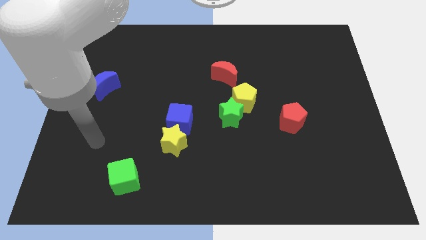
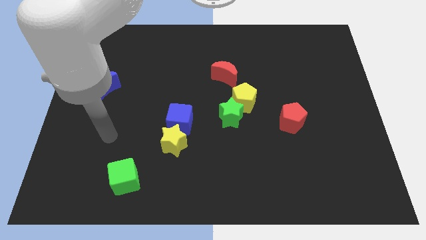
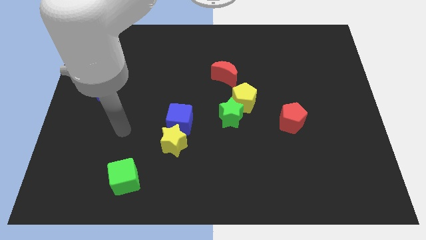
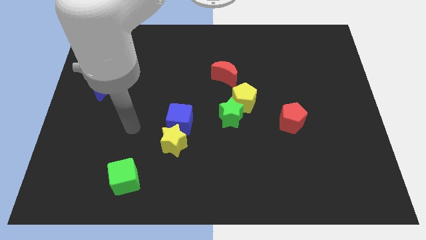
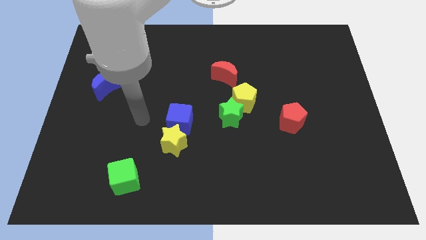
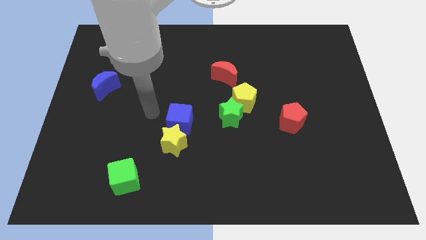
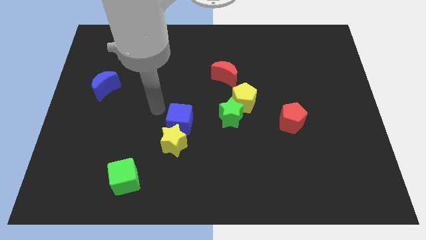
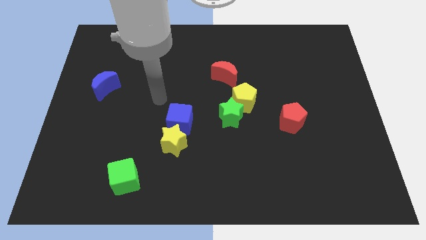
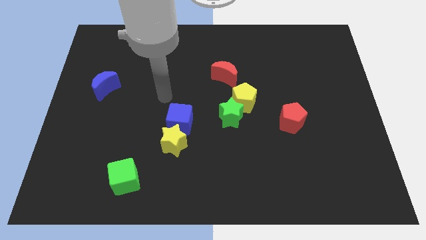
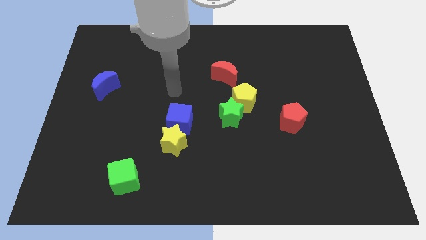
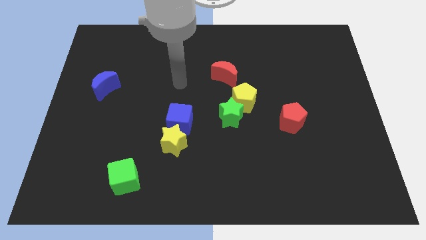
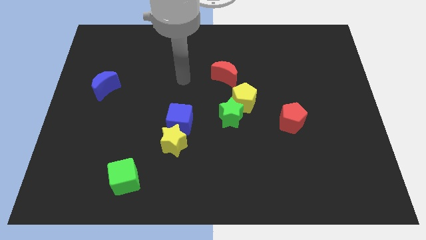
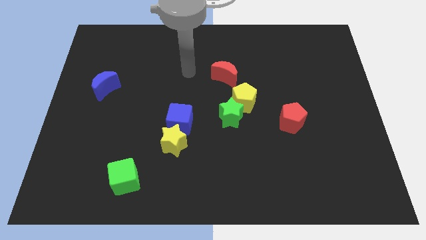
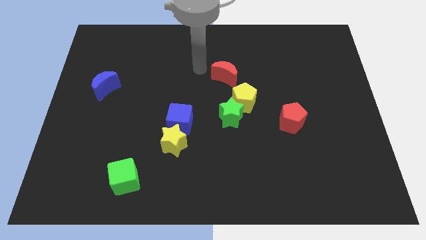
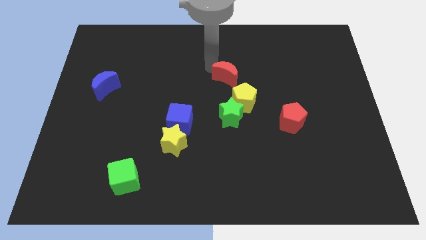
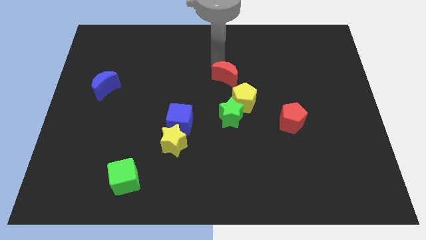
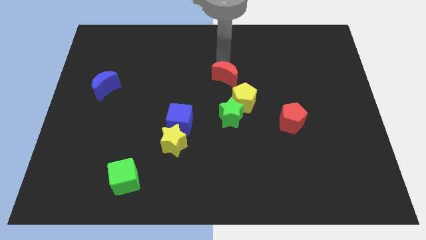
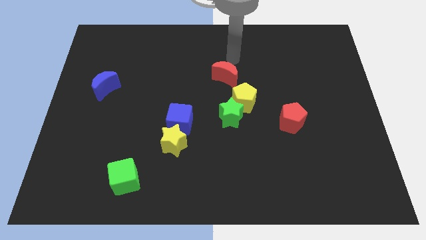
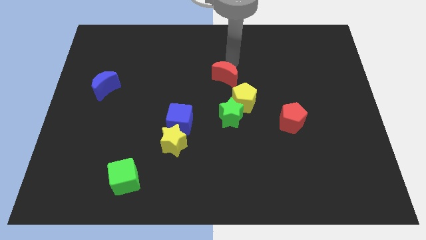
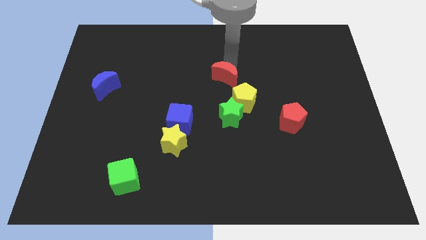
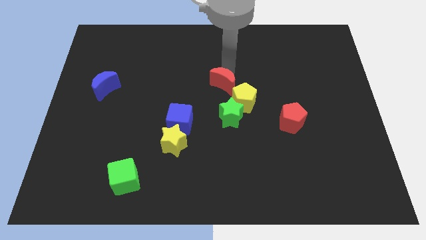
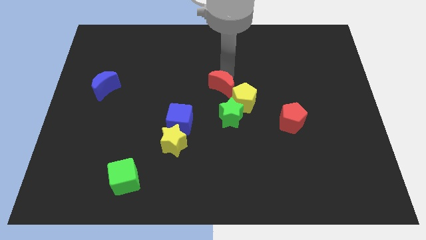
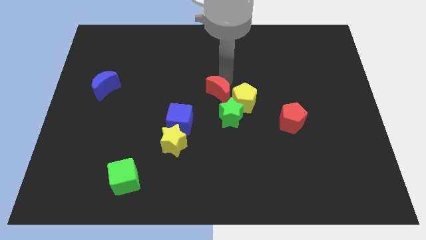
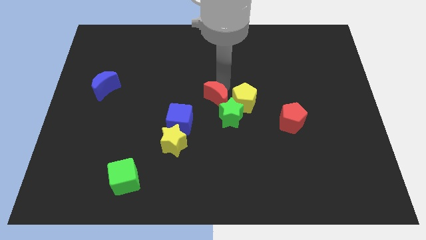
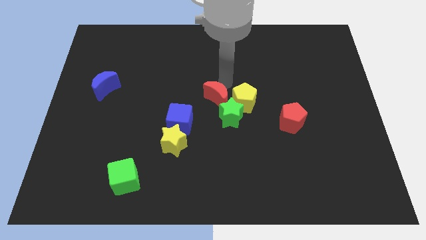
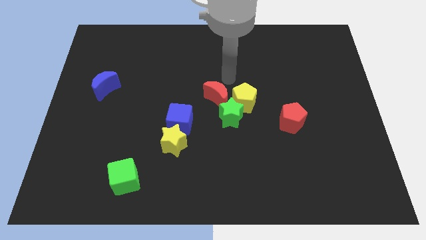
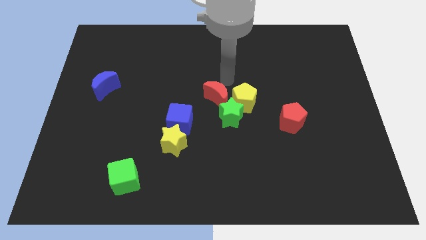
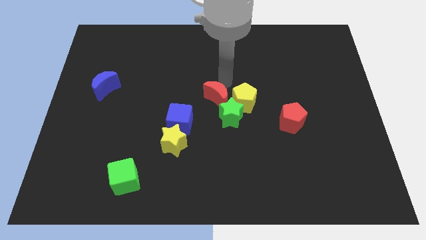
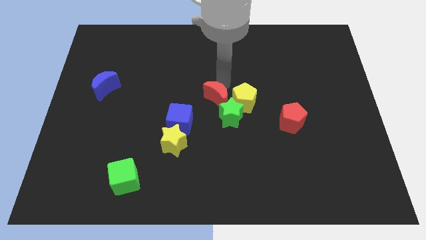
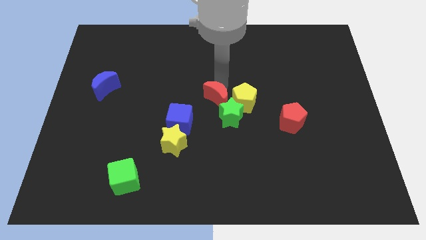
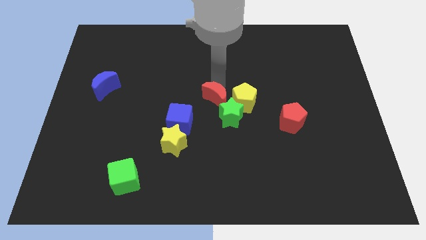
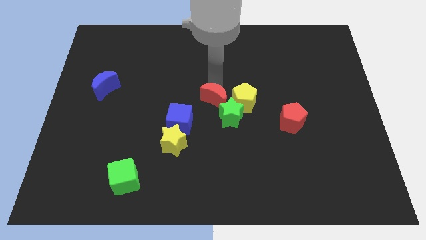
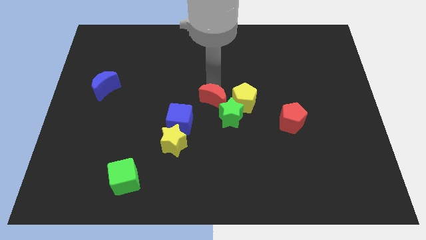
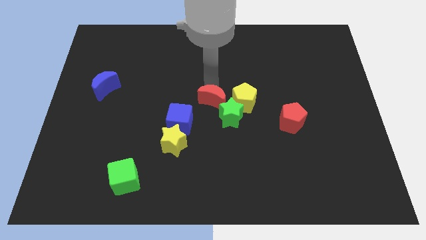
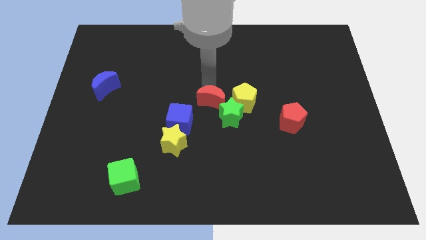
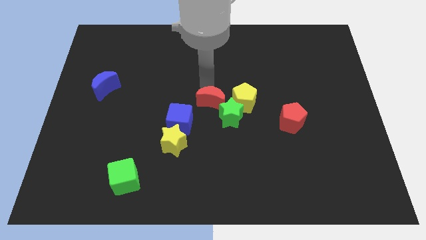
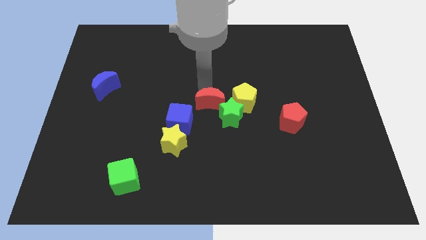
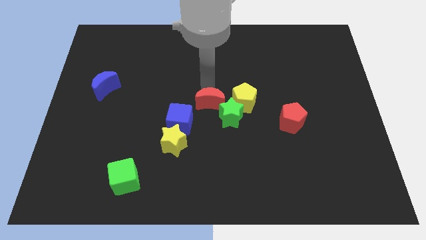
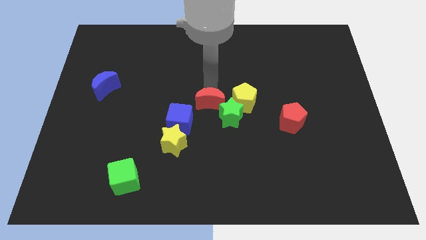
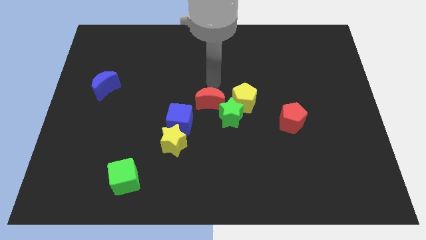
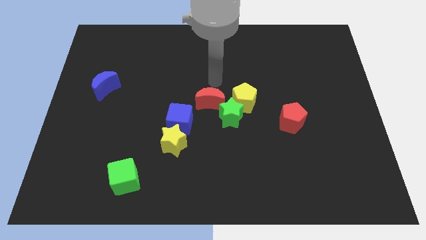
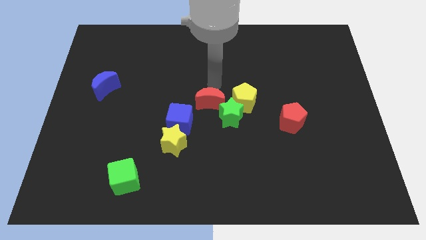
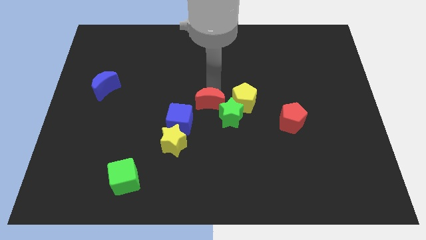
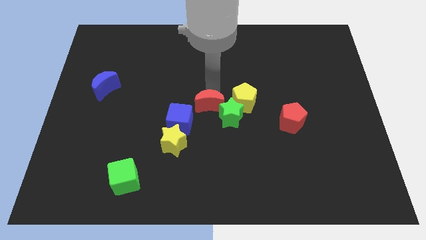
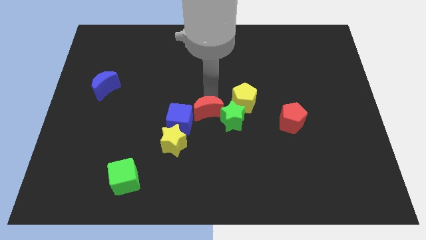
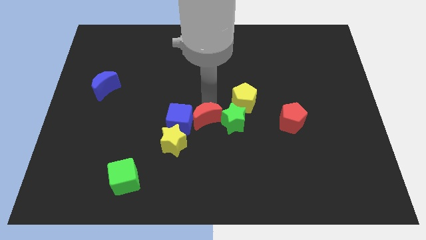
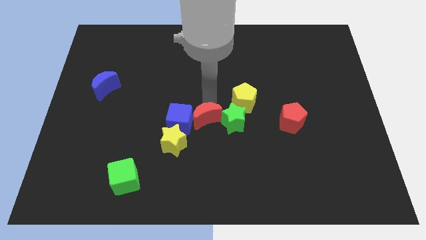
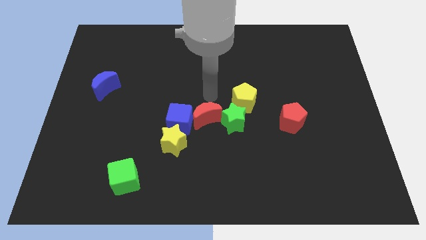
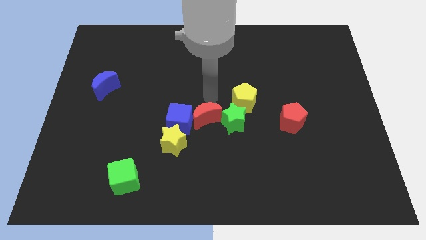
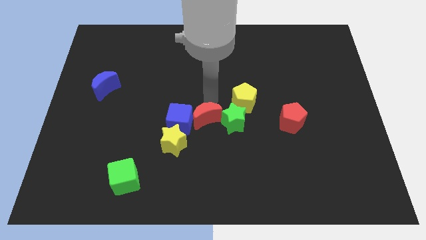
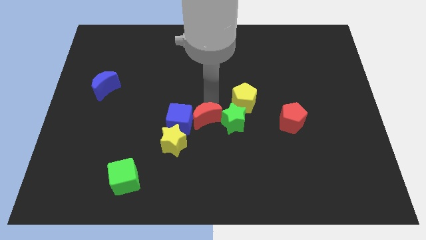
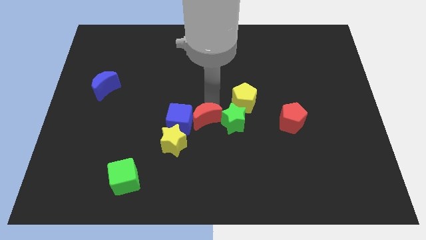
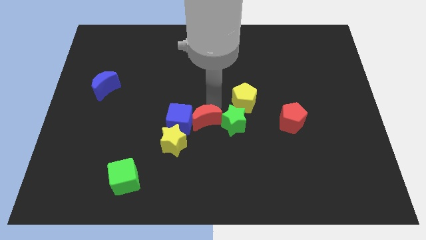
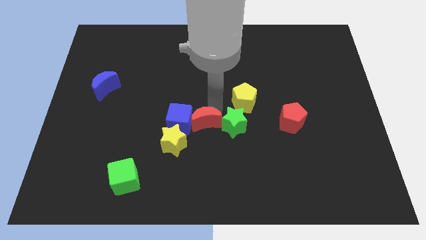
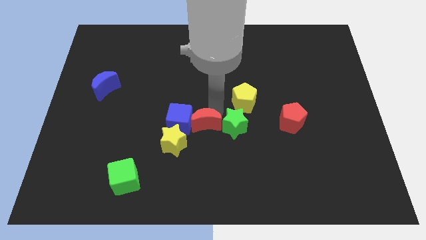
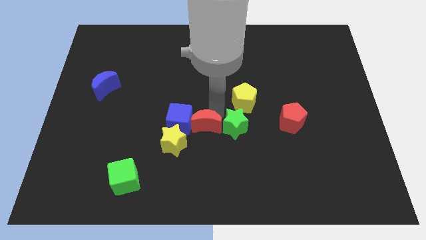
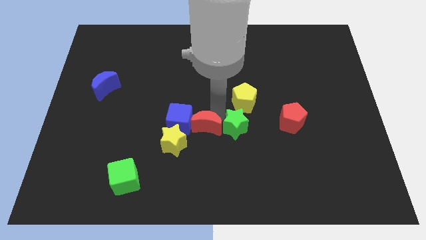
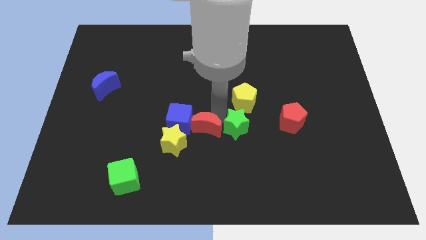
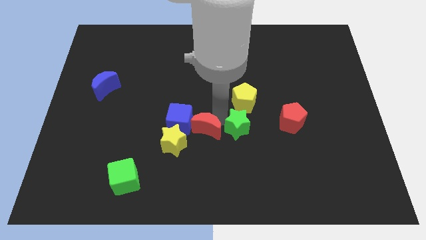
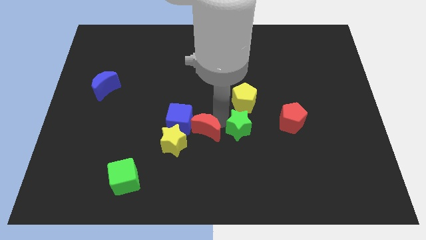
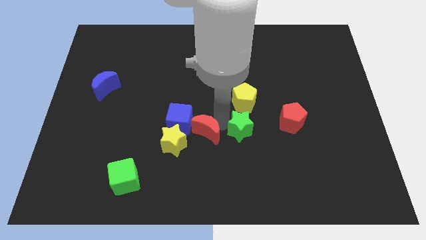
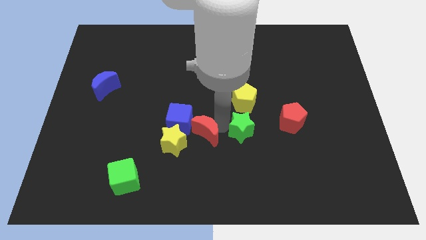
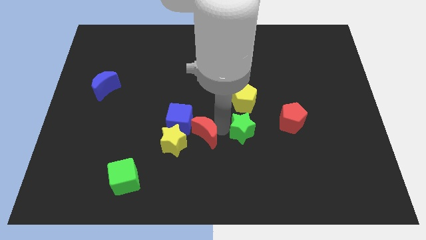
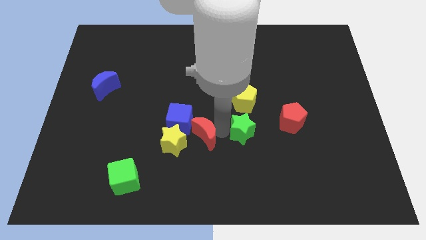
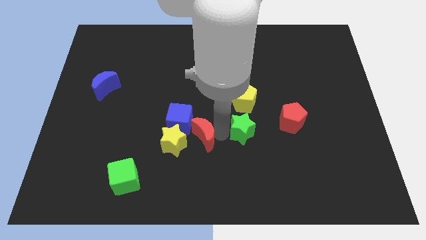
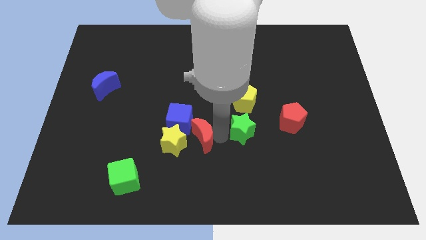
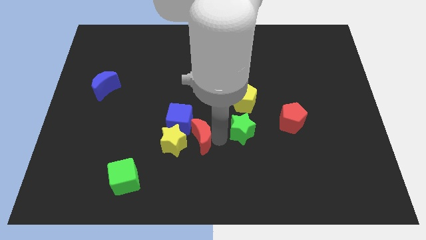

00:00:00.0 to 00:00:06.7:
put the red moon close to the yellow star

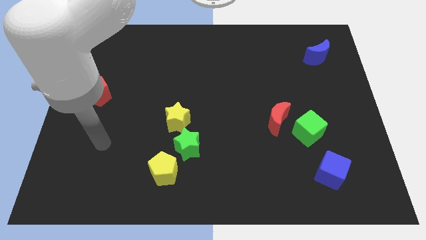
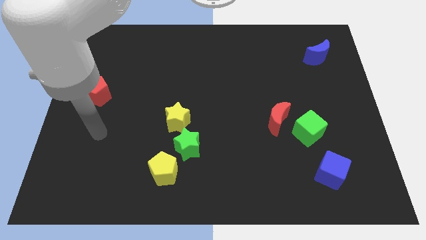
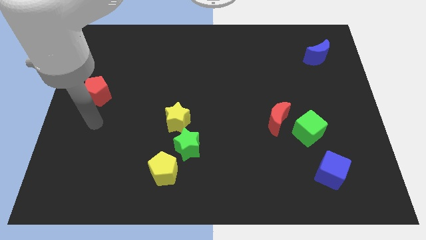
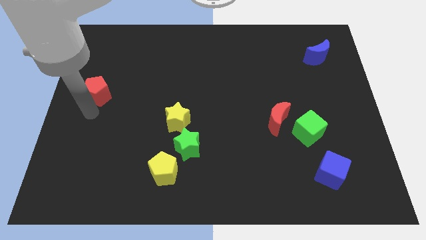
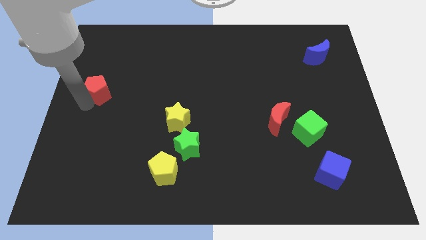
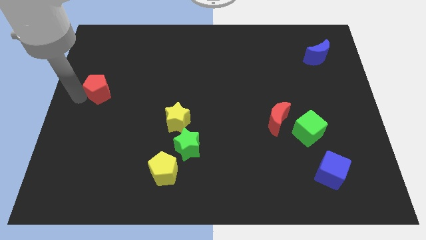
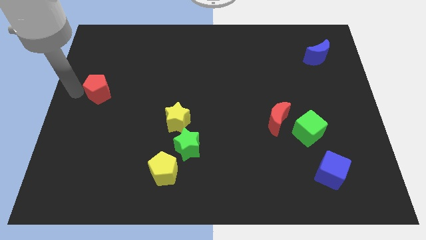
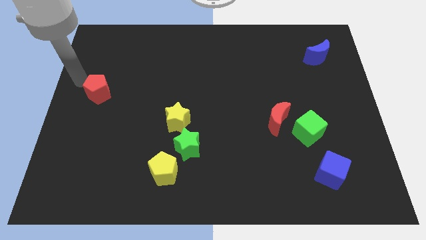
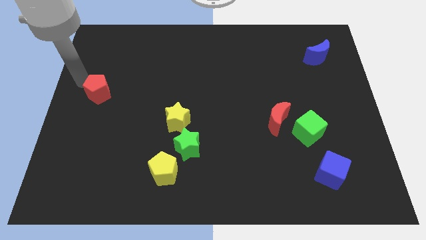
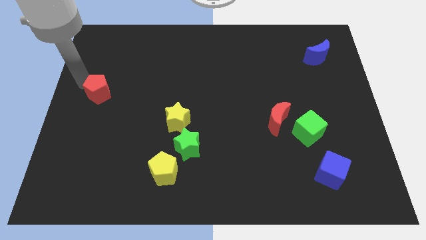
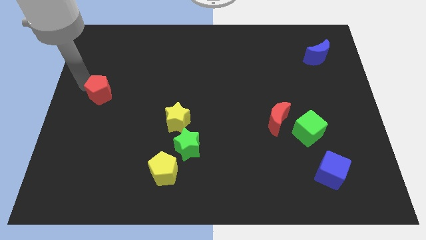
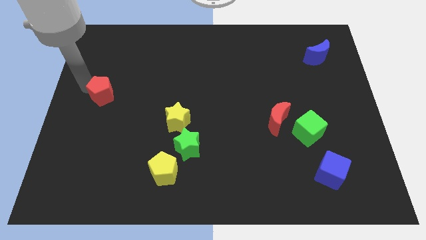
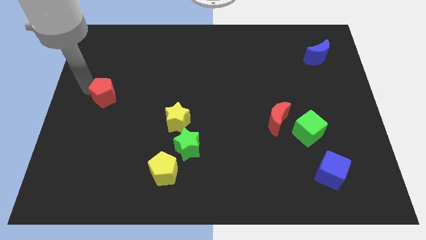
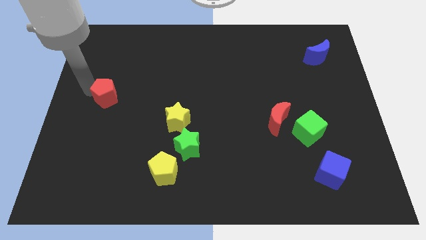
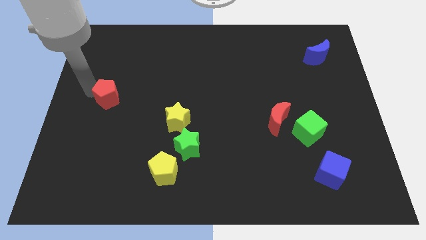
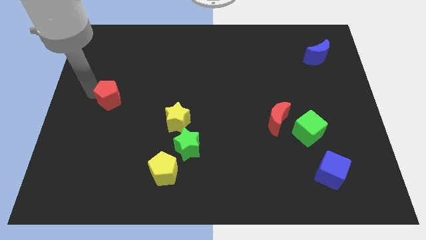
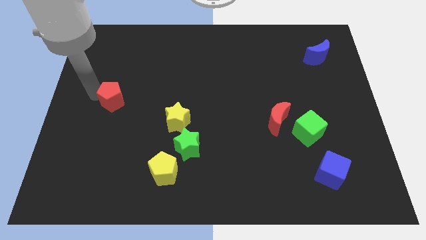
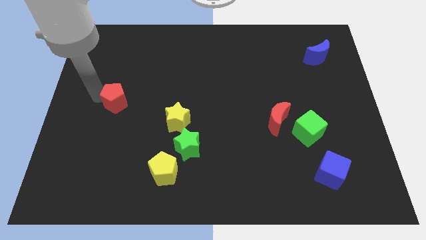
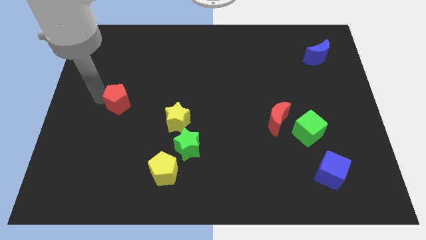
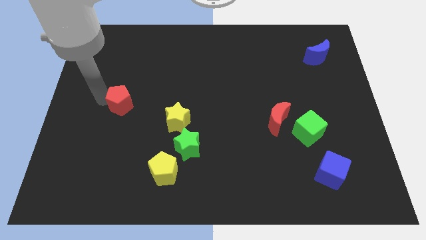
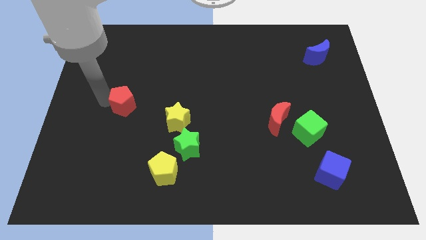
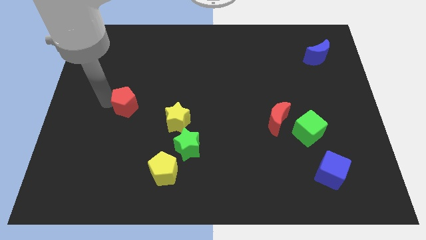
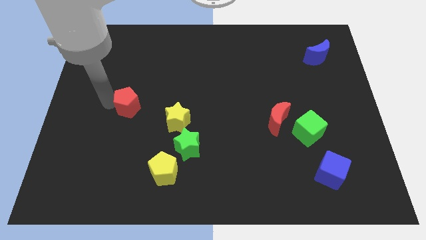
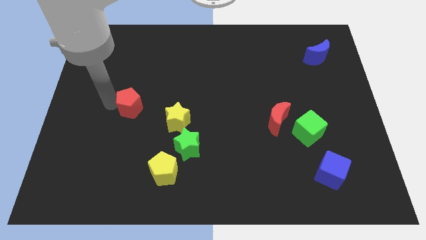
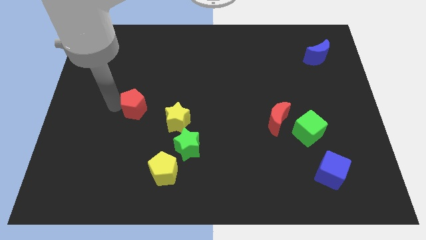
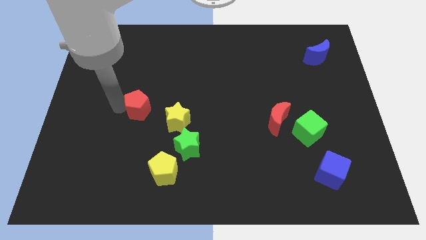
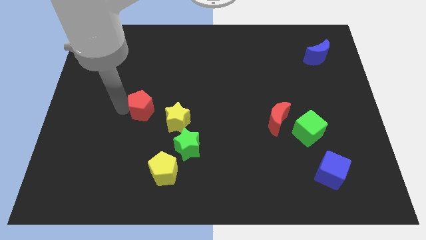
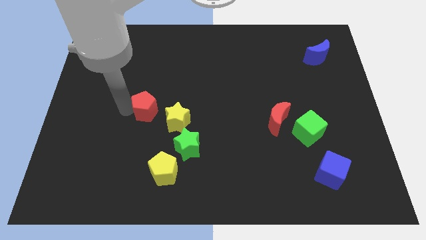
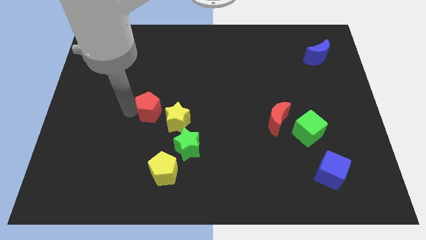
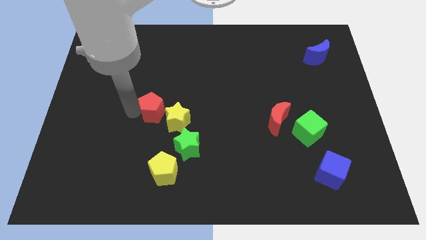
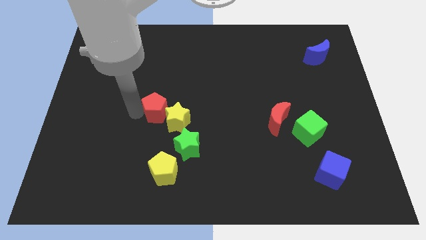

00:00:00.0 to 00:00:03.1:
slide the red pentagon towards the yellow star
